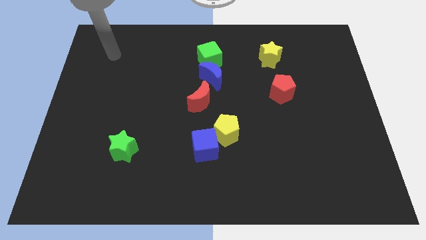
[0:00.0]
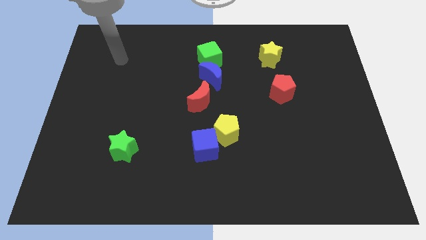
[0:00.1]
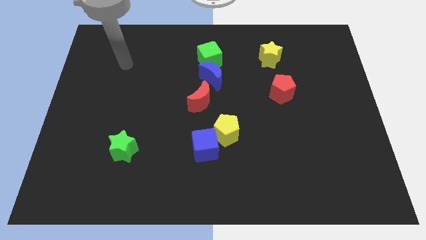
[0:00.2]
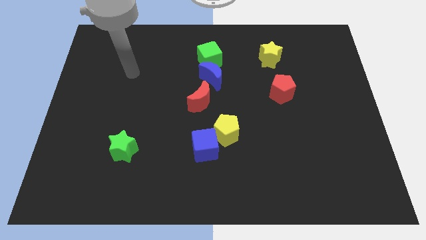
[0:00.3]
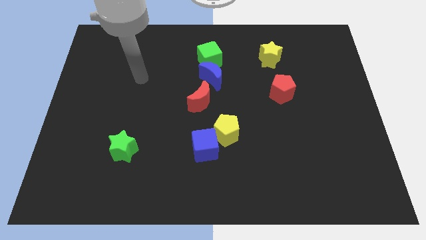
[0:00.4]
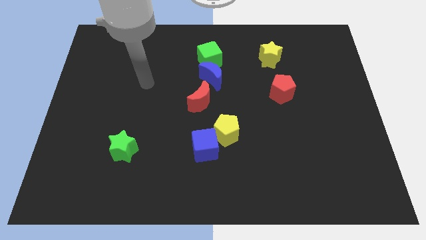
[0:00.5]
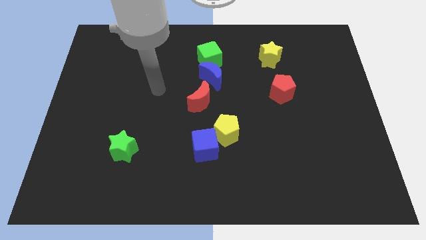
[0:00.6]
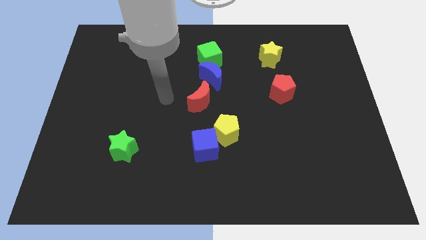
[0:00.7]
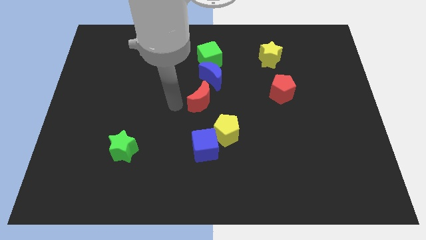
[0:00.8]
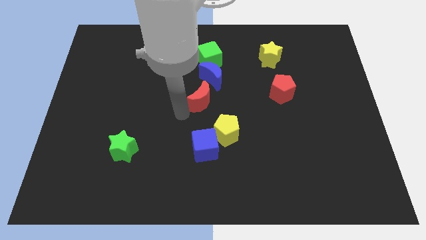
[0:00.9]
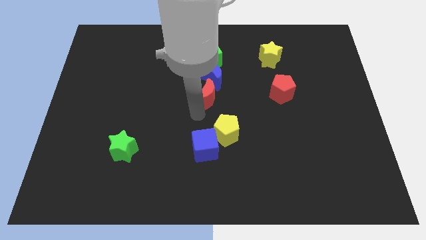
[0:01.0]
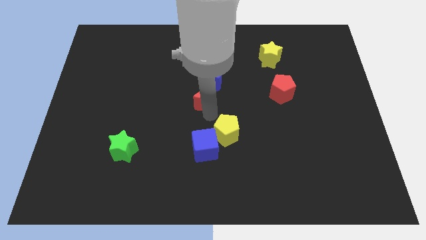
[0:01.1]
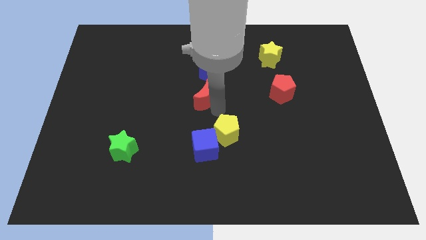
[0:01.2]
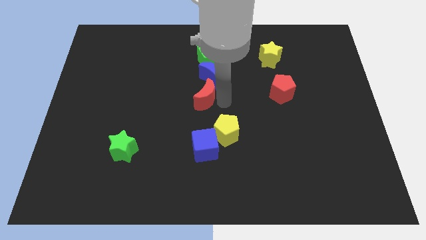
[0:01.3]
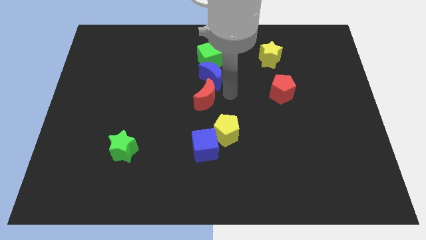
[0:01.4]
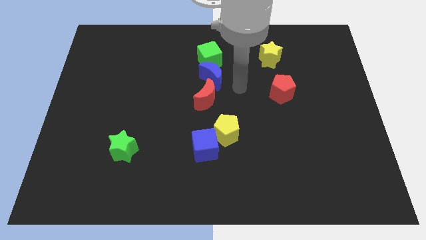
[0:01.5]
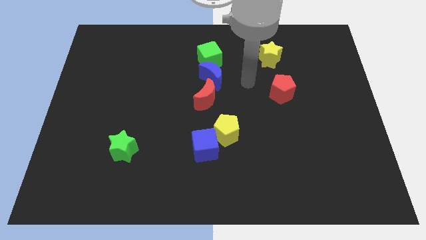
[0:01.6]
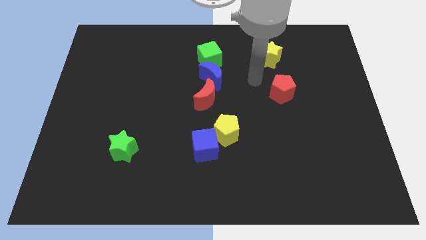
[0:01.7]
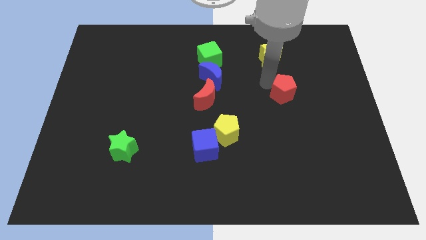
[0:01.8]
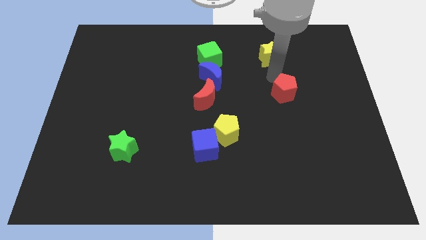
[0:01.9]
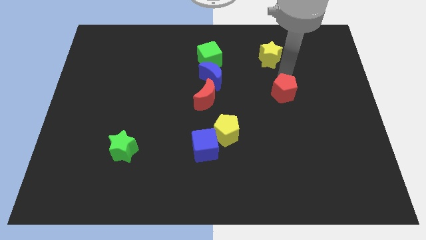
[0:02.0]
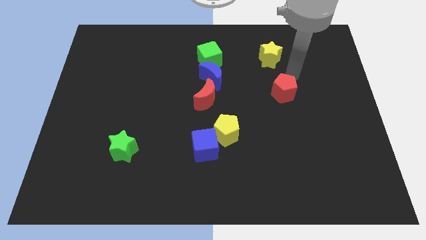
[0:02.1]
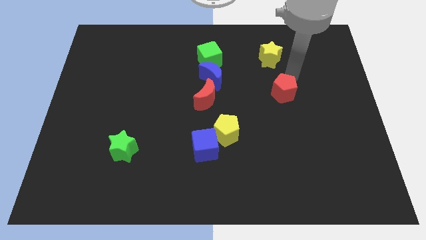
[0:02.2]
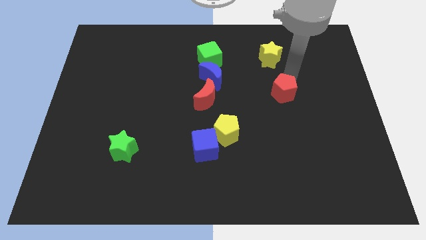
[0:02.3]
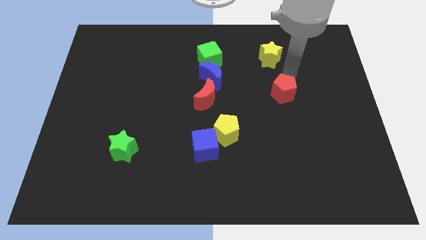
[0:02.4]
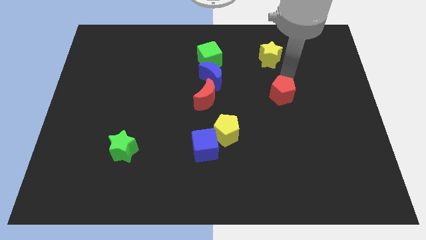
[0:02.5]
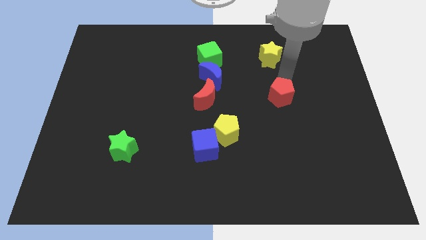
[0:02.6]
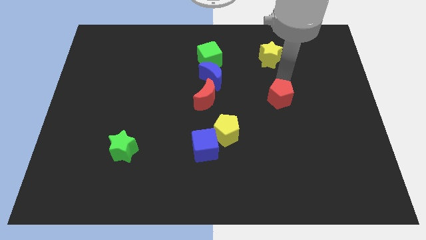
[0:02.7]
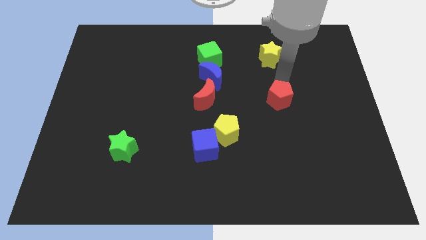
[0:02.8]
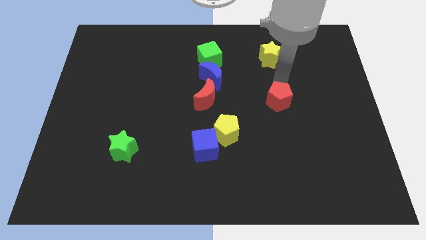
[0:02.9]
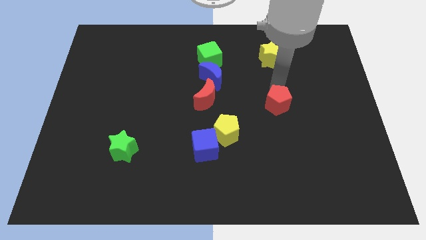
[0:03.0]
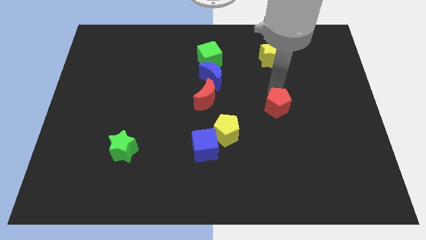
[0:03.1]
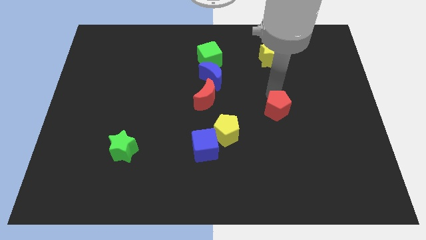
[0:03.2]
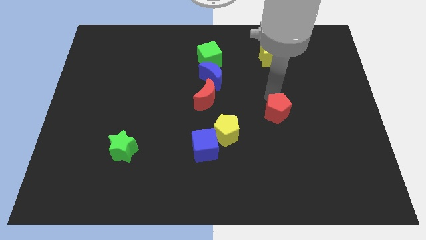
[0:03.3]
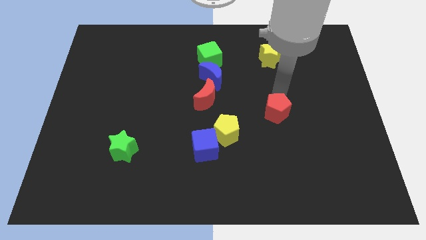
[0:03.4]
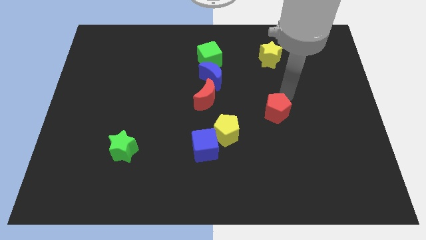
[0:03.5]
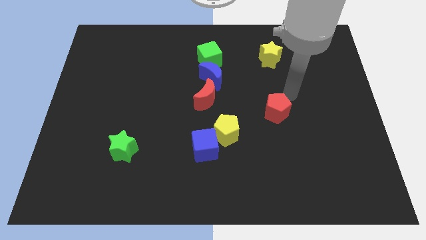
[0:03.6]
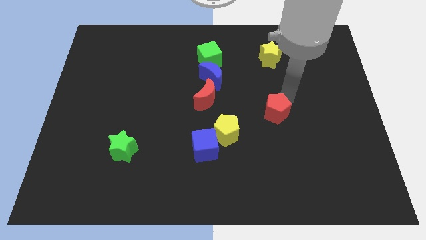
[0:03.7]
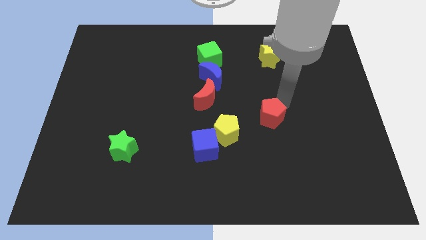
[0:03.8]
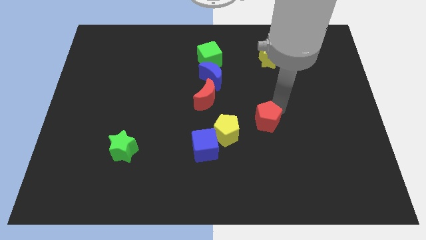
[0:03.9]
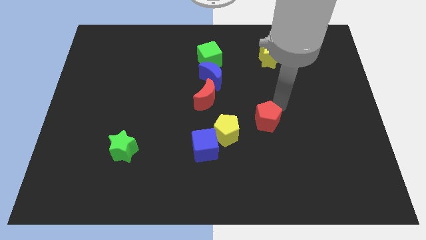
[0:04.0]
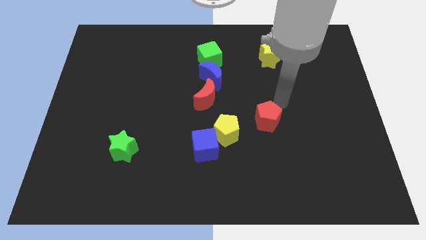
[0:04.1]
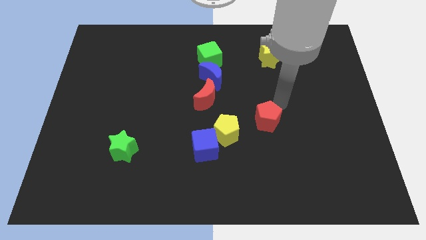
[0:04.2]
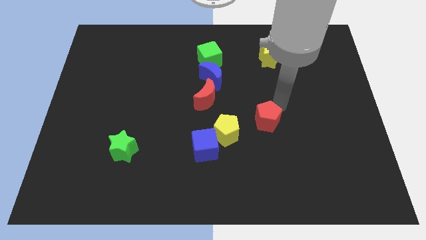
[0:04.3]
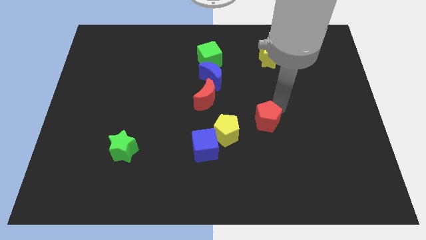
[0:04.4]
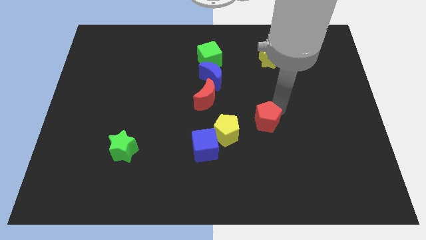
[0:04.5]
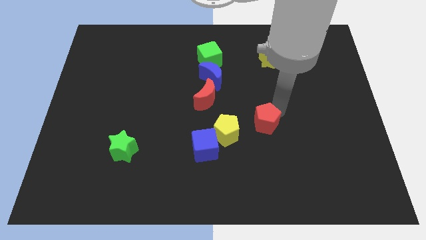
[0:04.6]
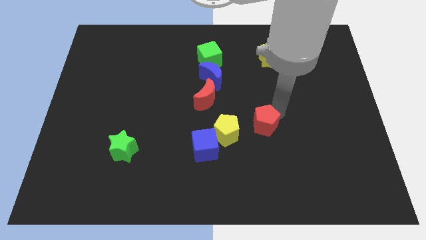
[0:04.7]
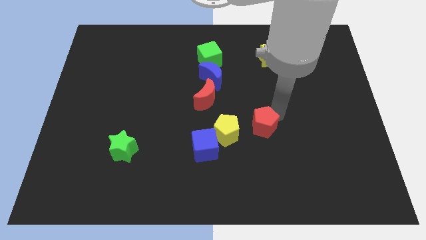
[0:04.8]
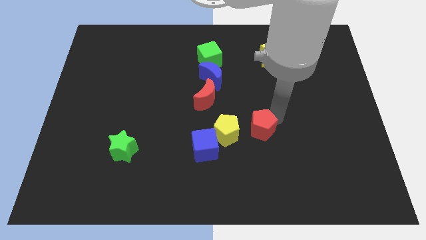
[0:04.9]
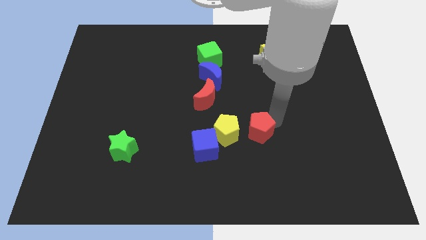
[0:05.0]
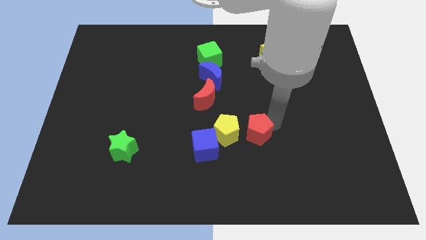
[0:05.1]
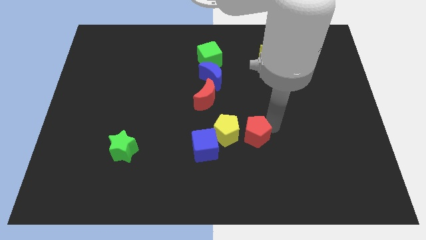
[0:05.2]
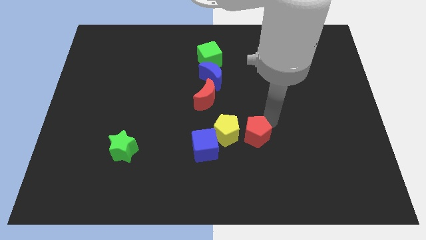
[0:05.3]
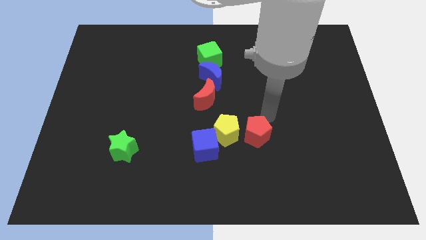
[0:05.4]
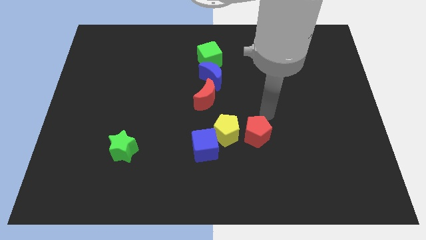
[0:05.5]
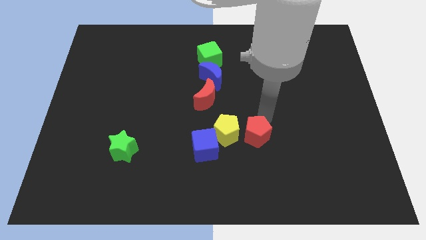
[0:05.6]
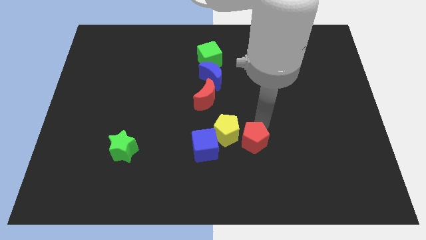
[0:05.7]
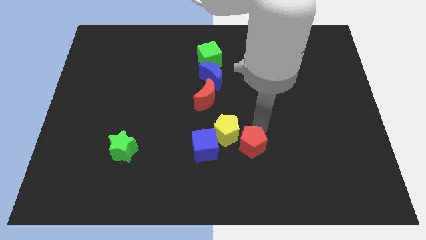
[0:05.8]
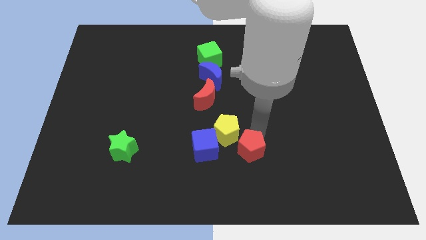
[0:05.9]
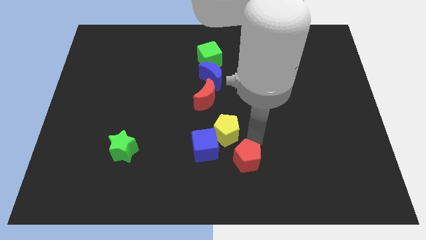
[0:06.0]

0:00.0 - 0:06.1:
push the red pentagon to the bottom

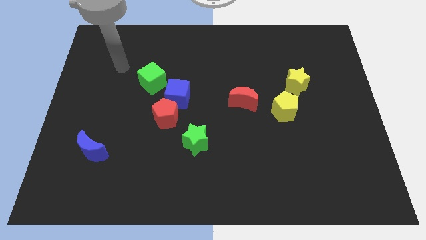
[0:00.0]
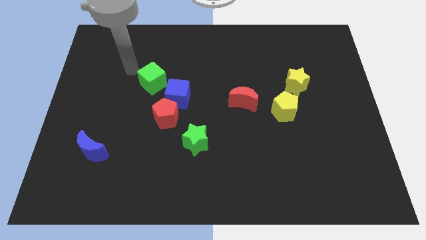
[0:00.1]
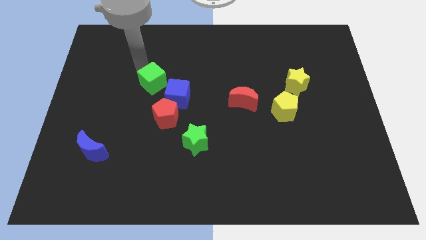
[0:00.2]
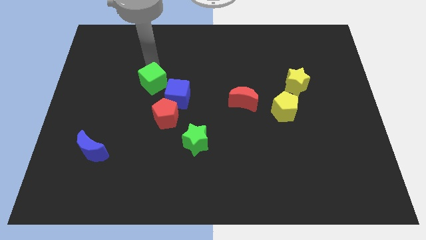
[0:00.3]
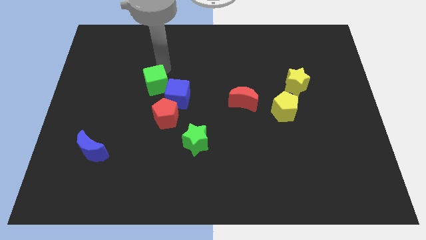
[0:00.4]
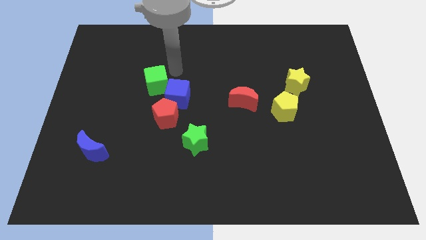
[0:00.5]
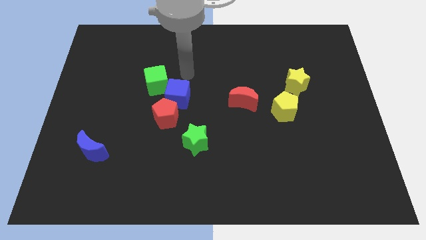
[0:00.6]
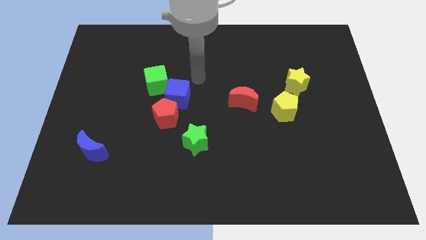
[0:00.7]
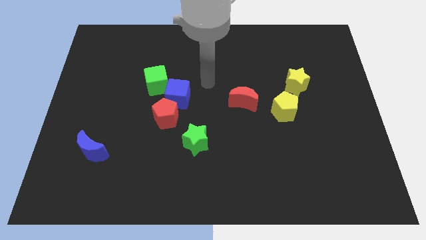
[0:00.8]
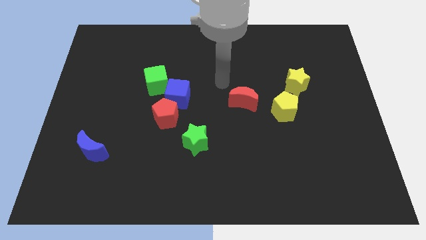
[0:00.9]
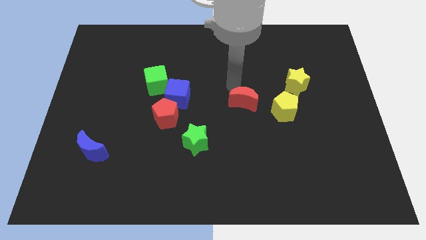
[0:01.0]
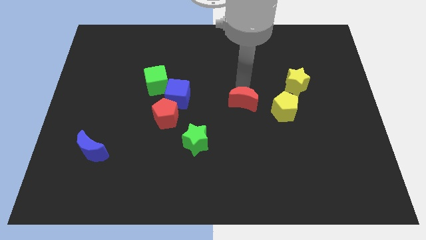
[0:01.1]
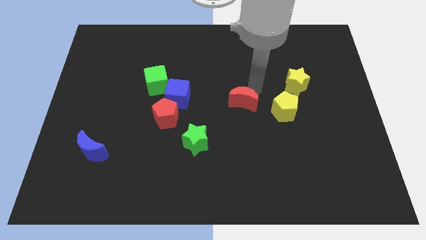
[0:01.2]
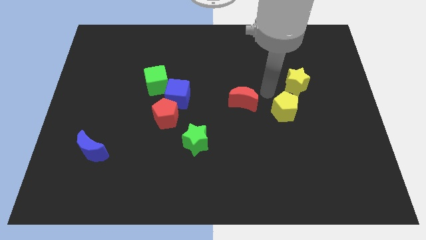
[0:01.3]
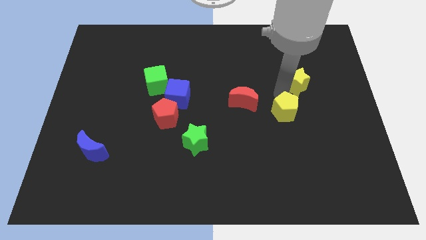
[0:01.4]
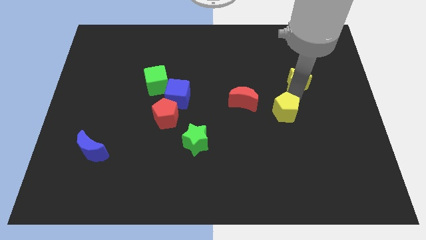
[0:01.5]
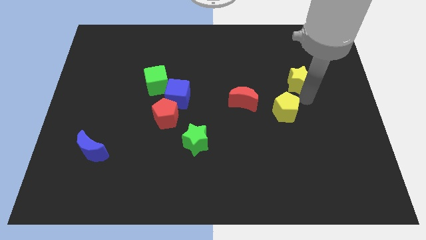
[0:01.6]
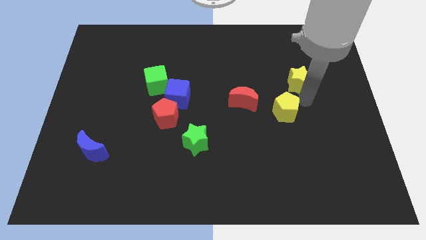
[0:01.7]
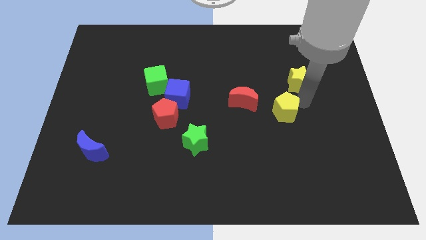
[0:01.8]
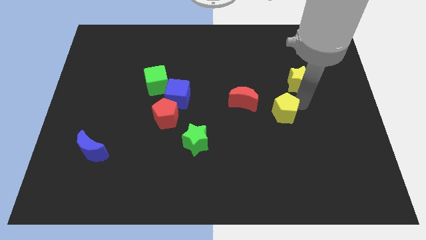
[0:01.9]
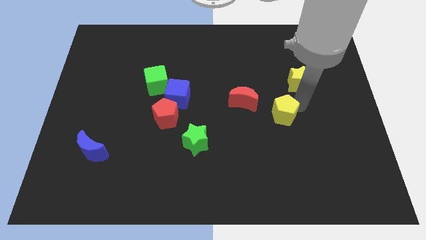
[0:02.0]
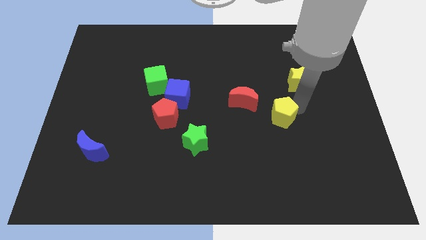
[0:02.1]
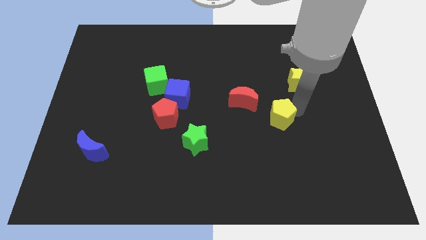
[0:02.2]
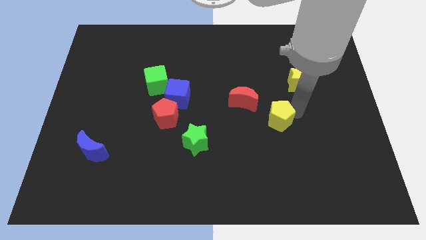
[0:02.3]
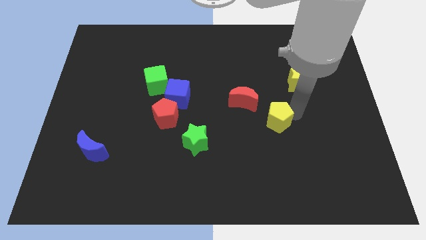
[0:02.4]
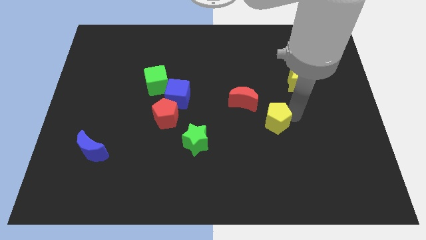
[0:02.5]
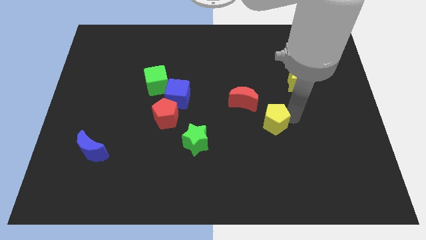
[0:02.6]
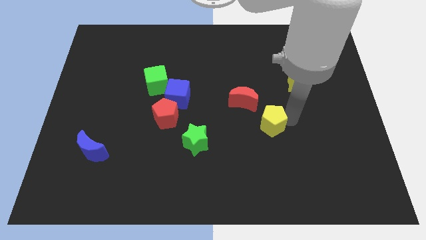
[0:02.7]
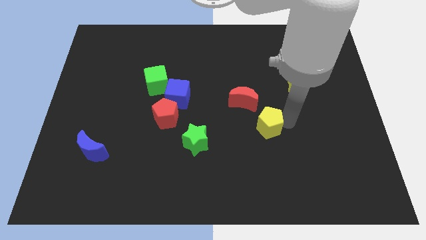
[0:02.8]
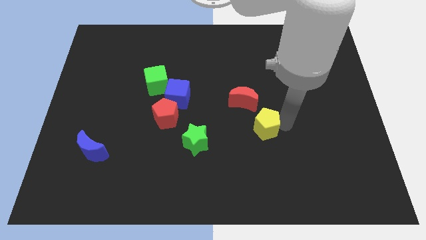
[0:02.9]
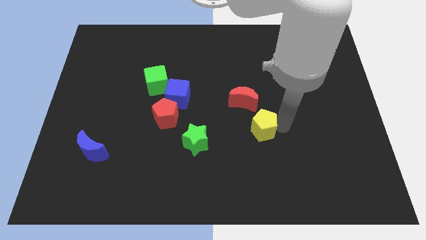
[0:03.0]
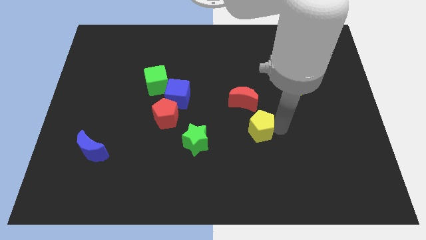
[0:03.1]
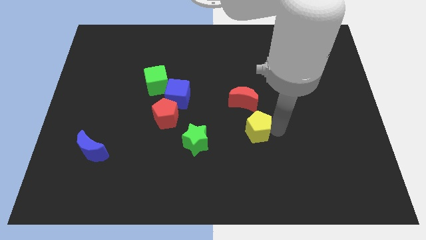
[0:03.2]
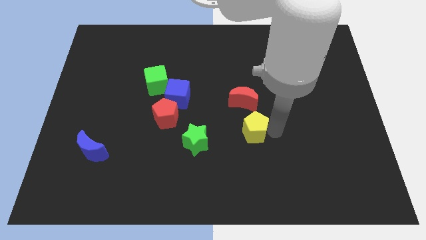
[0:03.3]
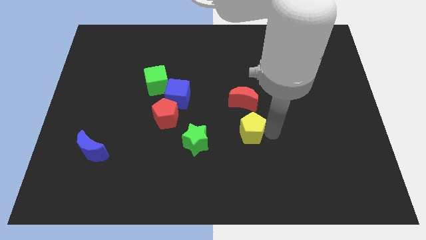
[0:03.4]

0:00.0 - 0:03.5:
move the yellow pentagon to the middle of the board
